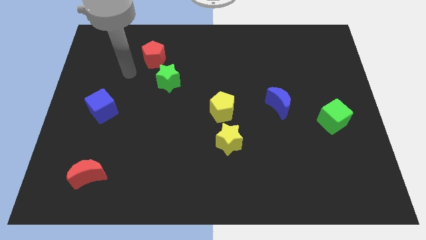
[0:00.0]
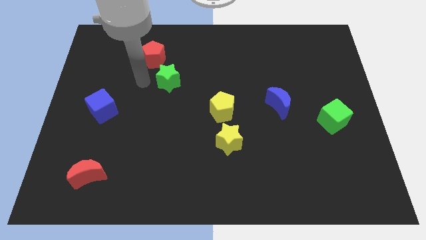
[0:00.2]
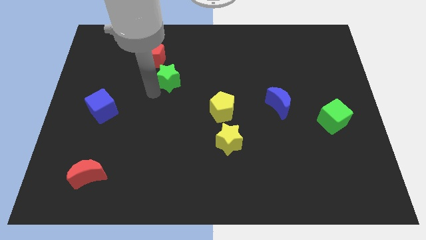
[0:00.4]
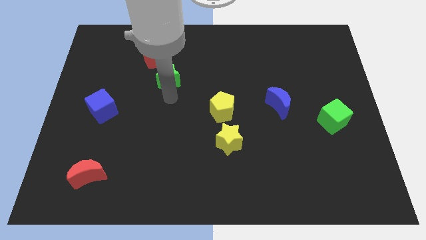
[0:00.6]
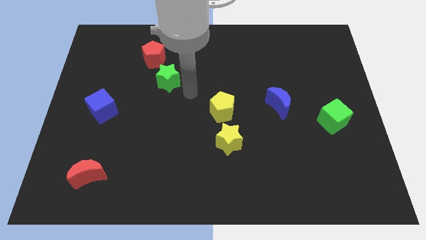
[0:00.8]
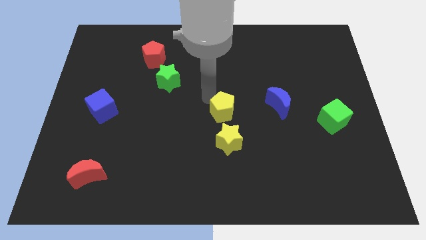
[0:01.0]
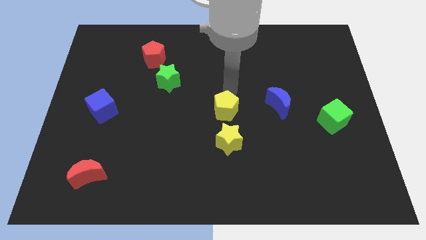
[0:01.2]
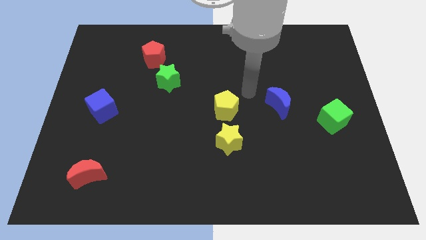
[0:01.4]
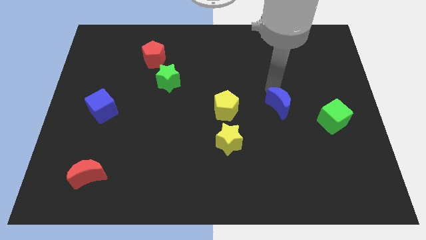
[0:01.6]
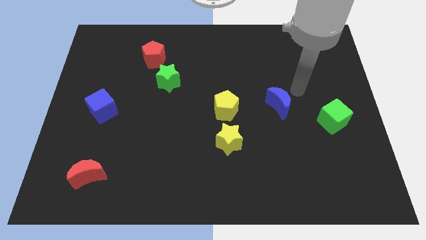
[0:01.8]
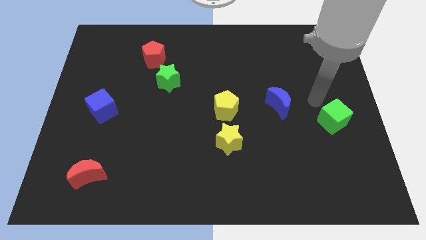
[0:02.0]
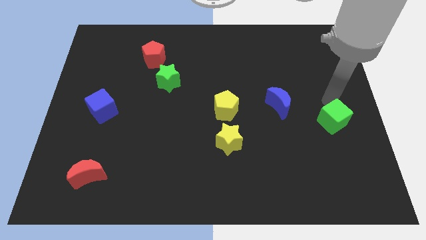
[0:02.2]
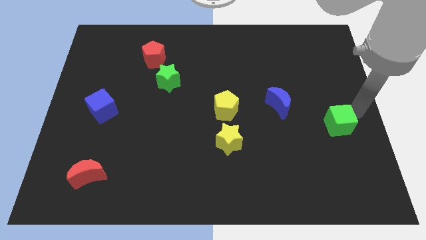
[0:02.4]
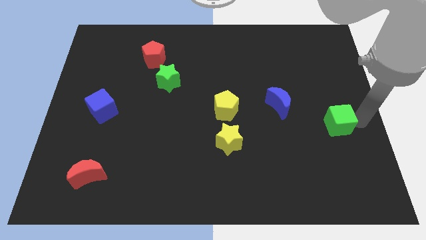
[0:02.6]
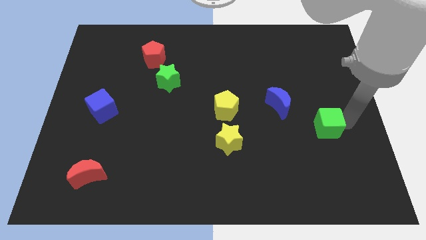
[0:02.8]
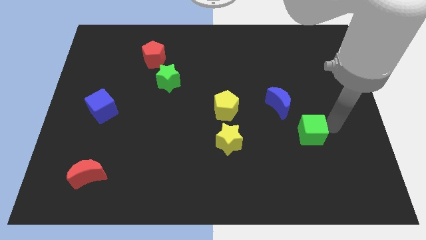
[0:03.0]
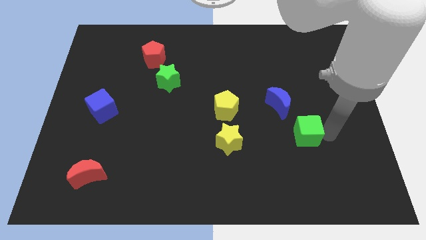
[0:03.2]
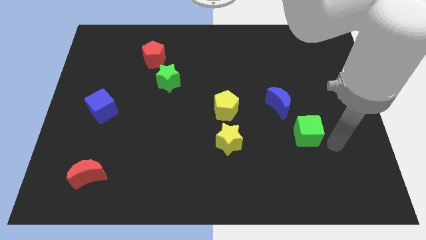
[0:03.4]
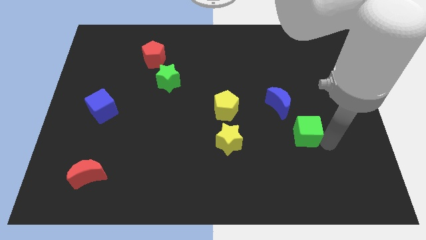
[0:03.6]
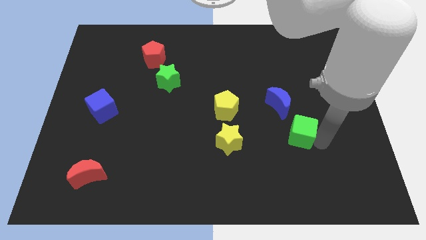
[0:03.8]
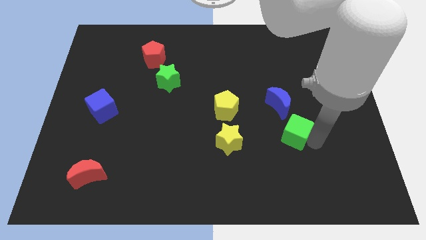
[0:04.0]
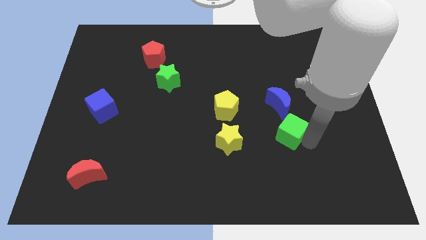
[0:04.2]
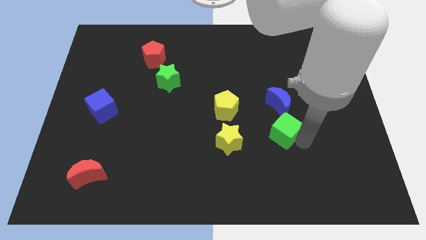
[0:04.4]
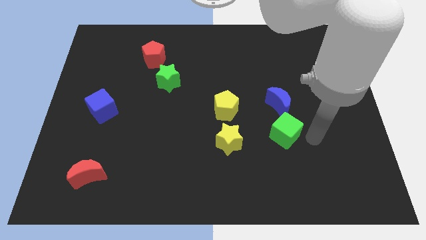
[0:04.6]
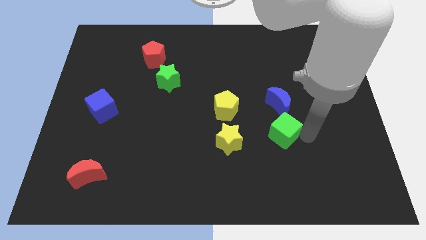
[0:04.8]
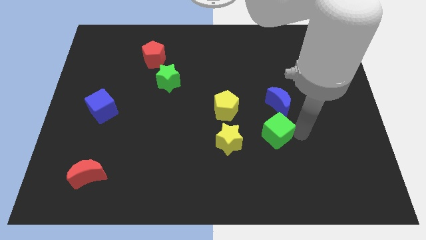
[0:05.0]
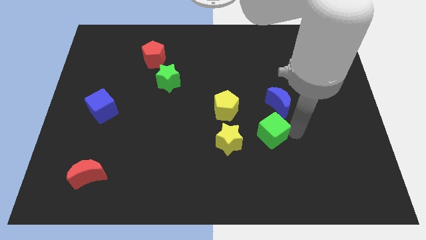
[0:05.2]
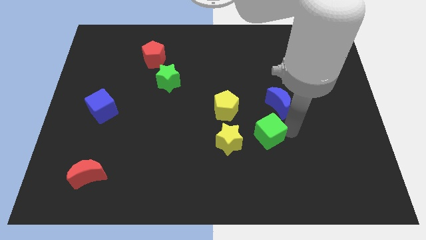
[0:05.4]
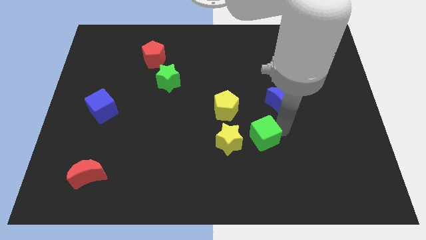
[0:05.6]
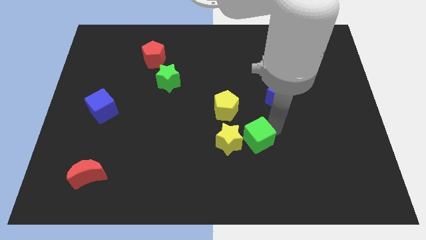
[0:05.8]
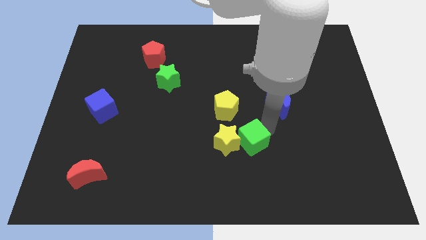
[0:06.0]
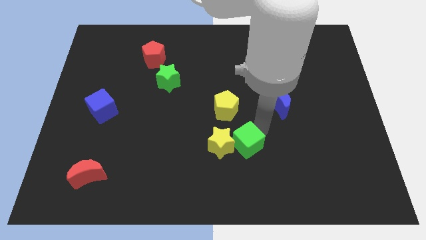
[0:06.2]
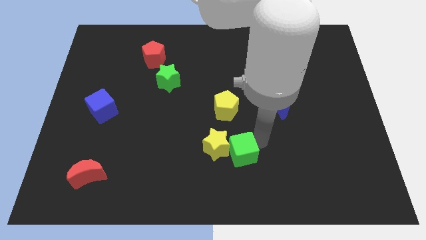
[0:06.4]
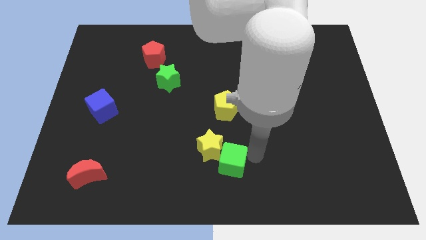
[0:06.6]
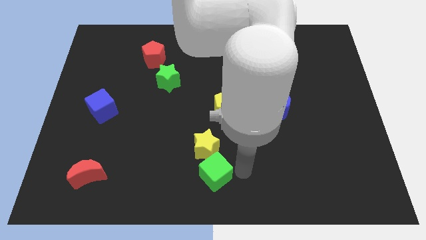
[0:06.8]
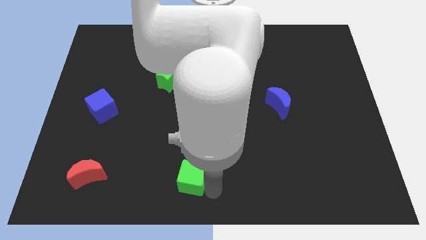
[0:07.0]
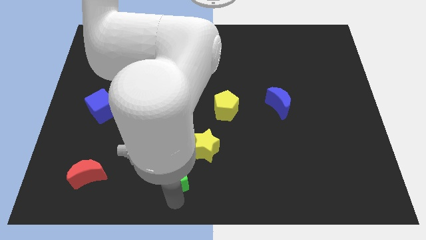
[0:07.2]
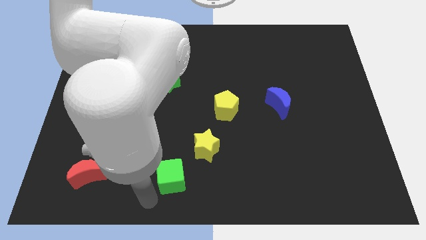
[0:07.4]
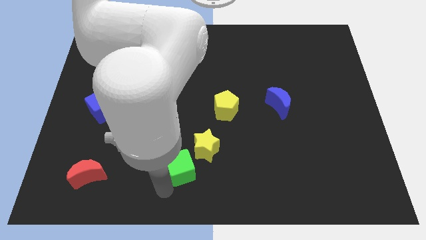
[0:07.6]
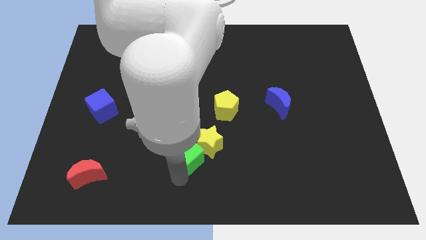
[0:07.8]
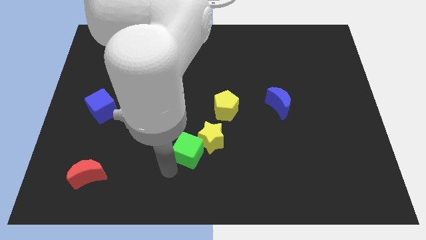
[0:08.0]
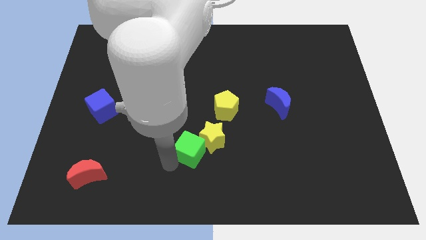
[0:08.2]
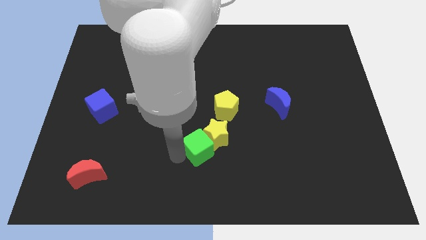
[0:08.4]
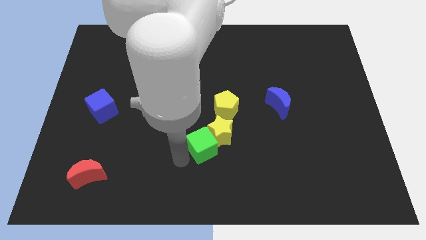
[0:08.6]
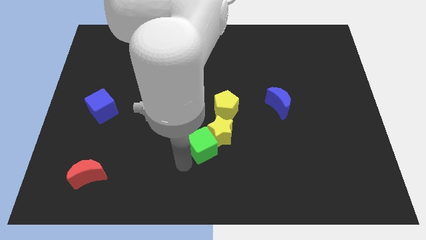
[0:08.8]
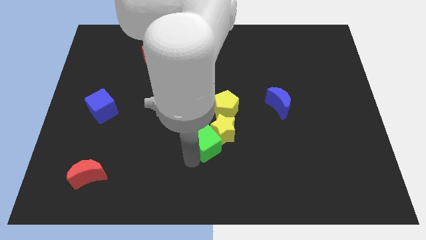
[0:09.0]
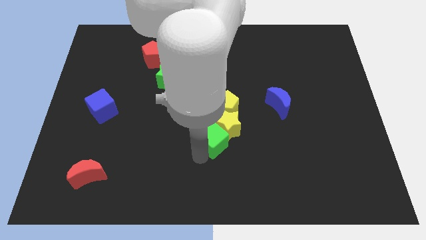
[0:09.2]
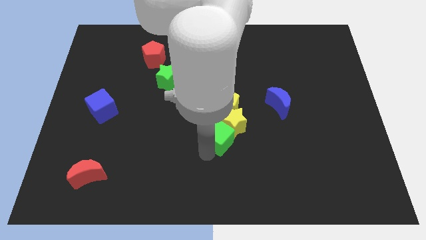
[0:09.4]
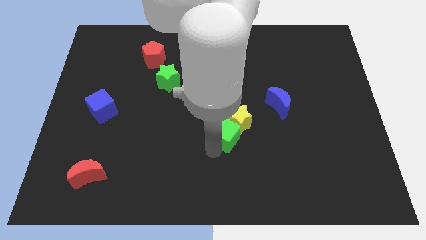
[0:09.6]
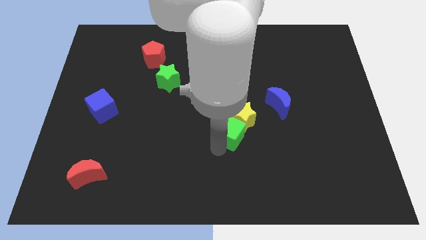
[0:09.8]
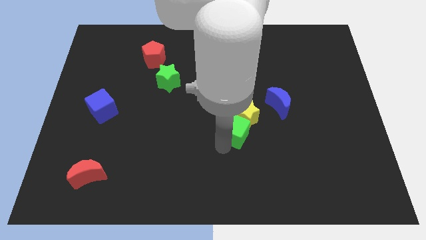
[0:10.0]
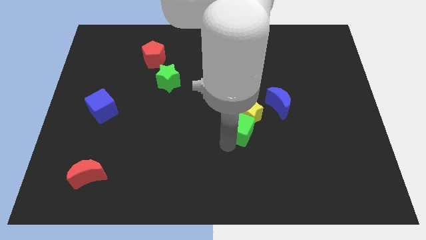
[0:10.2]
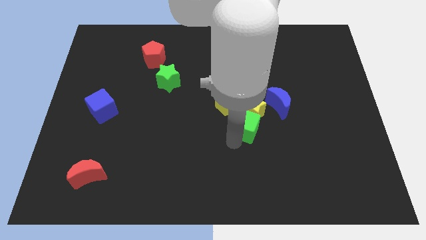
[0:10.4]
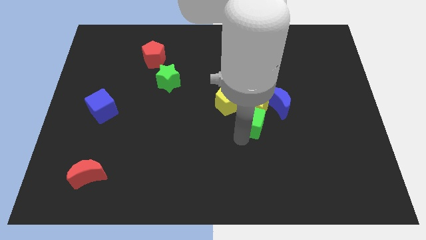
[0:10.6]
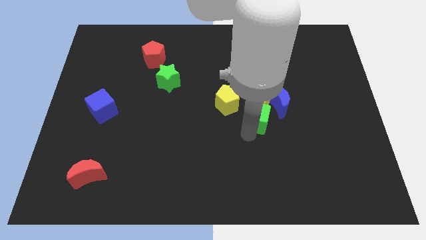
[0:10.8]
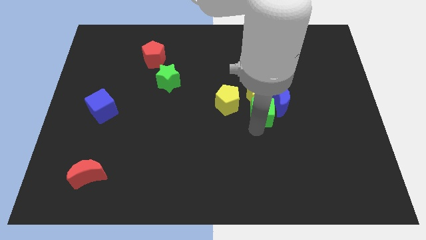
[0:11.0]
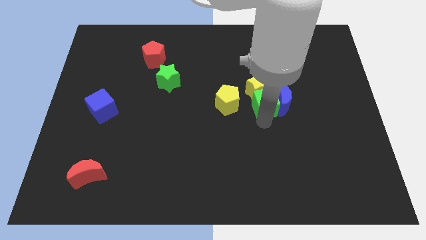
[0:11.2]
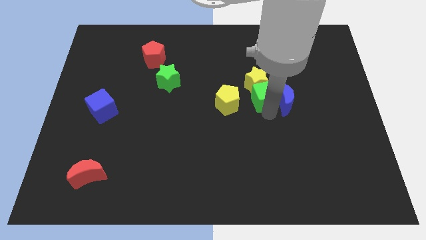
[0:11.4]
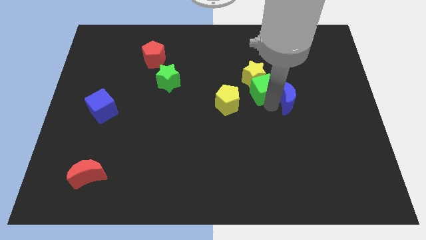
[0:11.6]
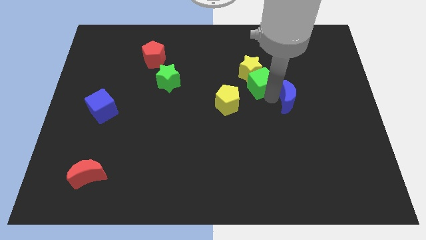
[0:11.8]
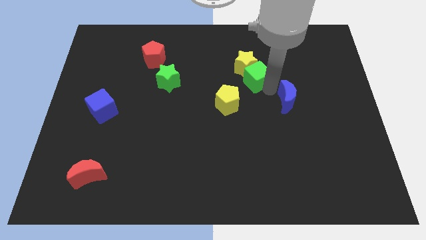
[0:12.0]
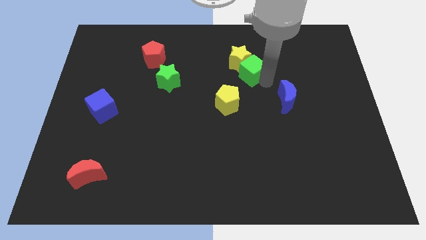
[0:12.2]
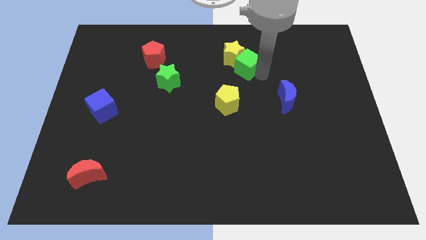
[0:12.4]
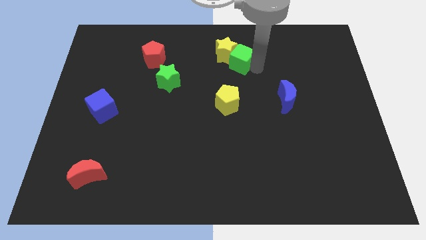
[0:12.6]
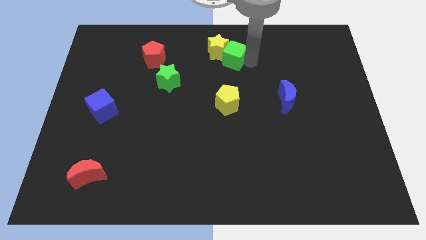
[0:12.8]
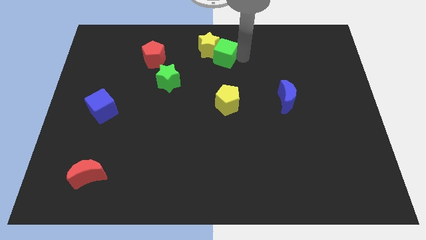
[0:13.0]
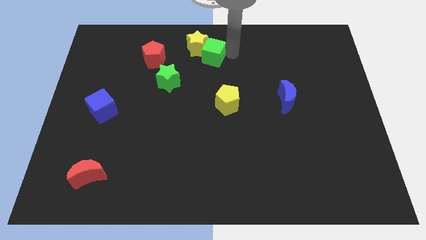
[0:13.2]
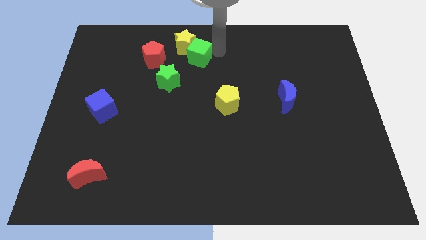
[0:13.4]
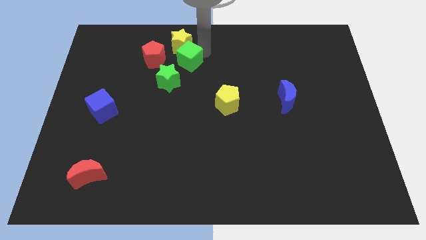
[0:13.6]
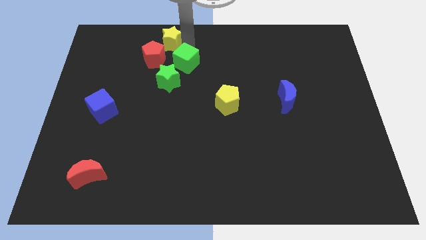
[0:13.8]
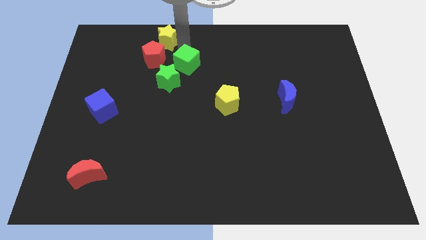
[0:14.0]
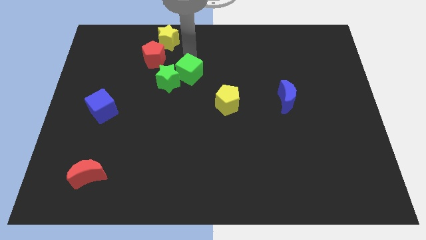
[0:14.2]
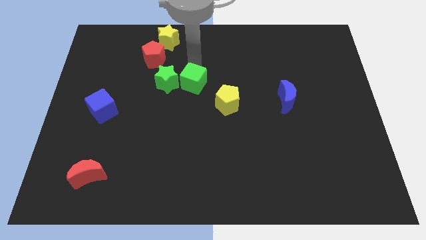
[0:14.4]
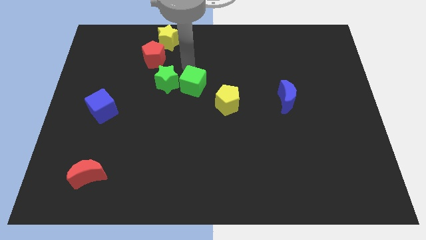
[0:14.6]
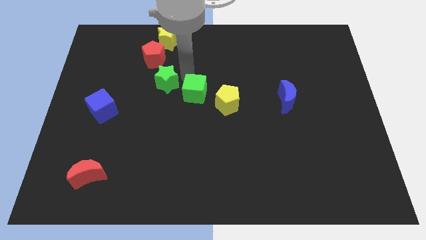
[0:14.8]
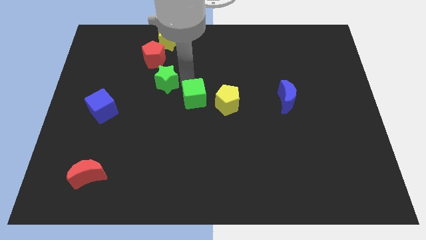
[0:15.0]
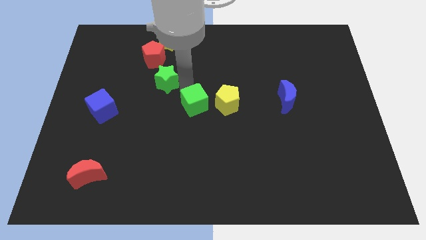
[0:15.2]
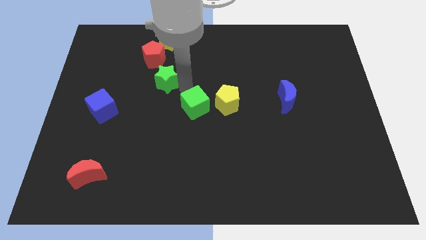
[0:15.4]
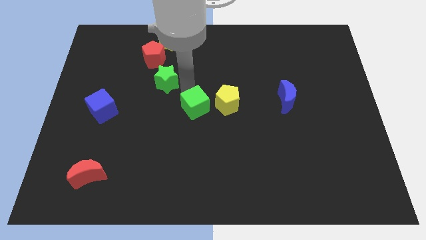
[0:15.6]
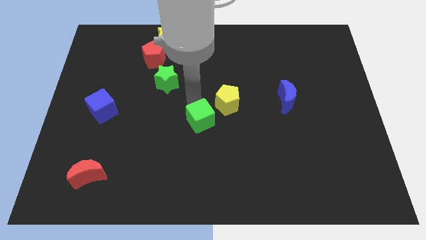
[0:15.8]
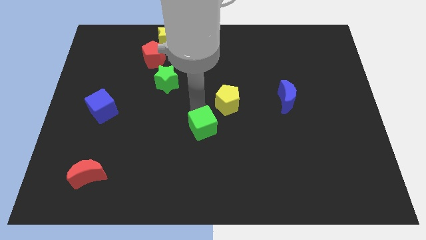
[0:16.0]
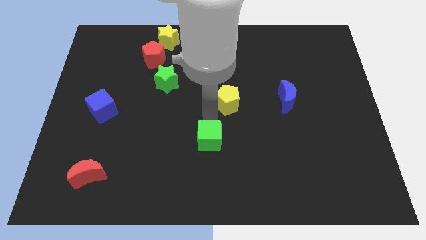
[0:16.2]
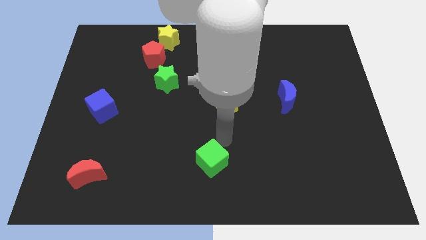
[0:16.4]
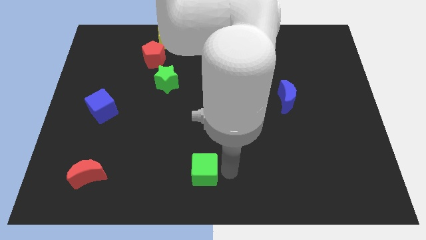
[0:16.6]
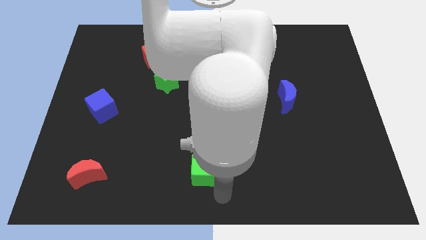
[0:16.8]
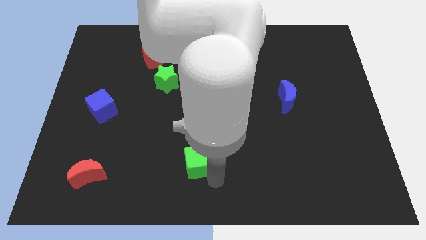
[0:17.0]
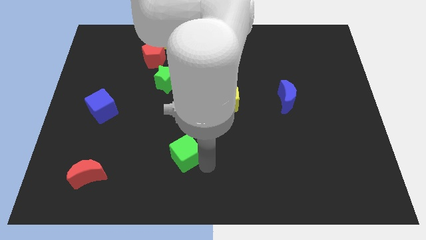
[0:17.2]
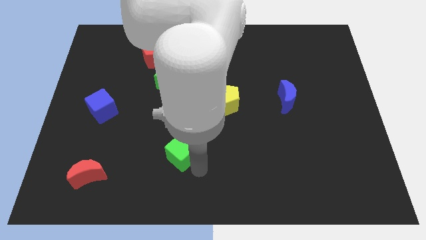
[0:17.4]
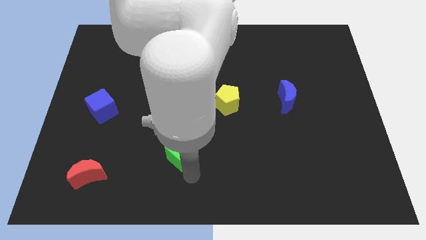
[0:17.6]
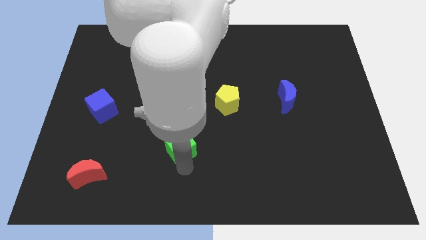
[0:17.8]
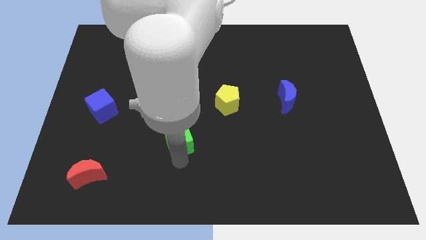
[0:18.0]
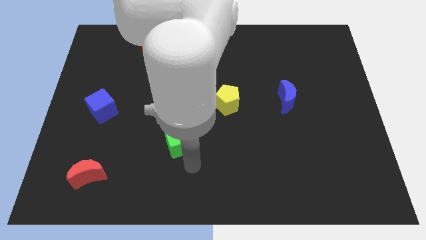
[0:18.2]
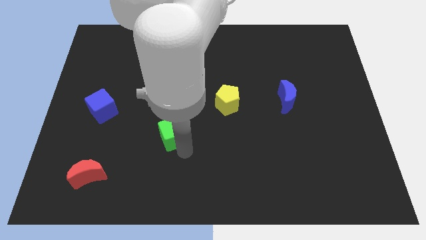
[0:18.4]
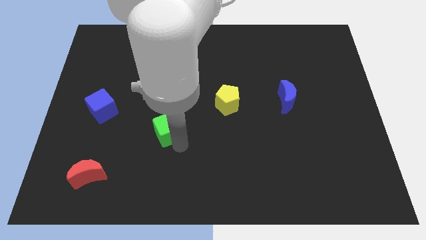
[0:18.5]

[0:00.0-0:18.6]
slide the green cube below the green star
